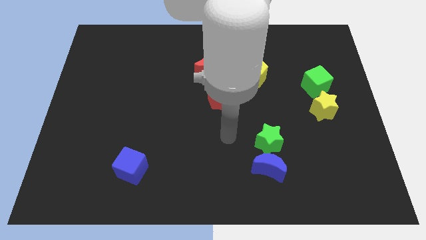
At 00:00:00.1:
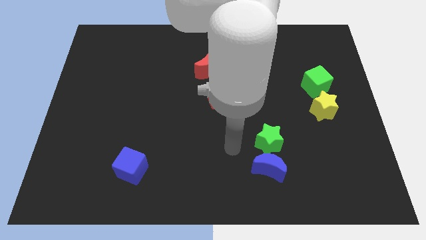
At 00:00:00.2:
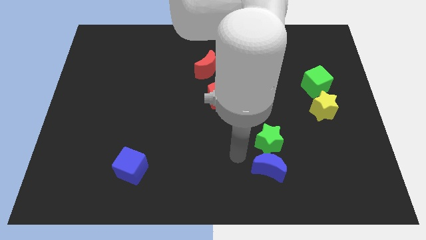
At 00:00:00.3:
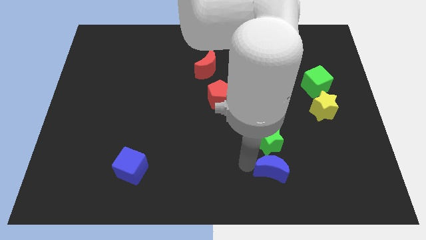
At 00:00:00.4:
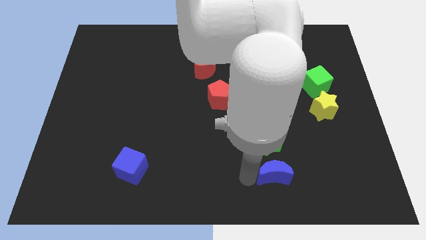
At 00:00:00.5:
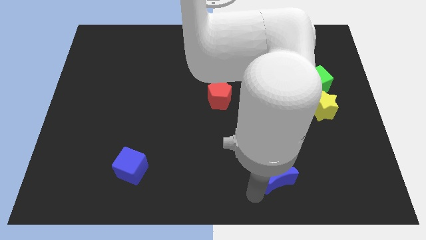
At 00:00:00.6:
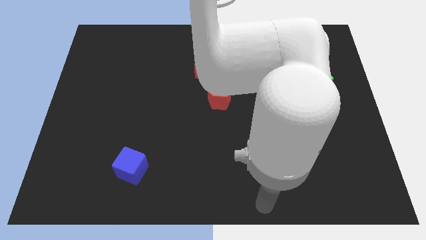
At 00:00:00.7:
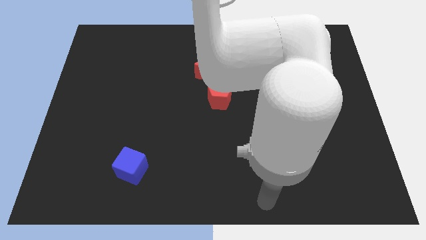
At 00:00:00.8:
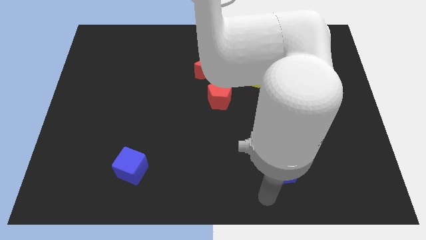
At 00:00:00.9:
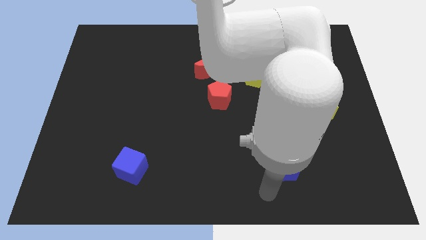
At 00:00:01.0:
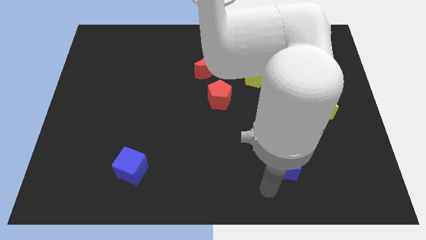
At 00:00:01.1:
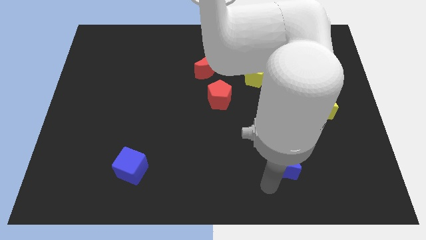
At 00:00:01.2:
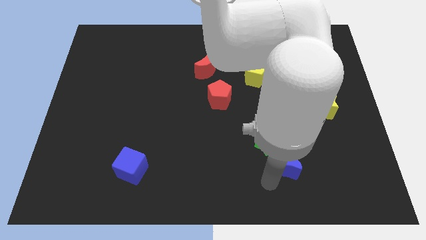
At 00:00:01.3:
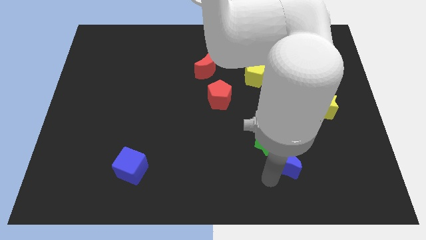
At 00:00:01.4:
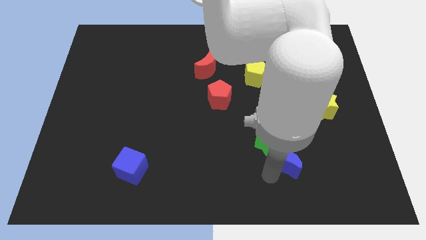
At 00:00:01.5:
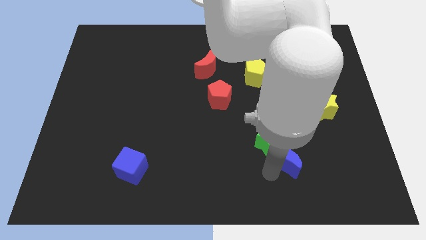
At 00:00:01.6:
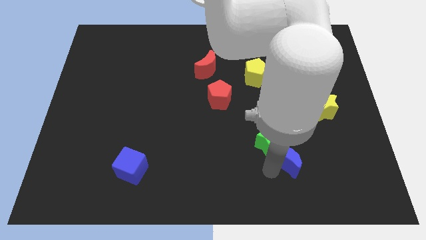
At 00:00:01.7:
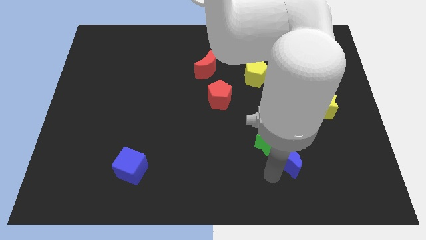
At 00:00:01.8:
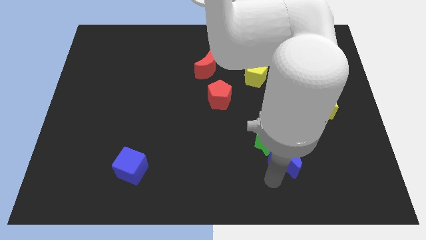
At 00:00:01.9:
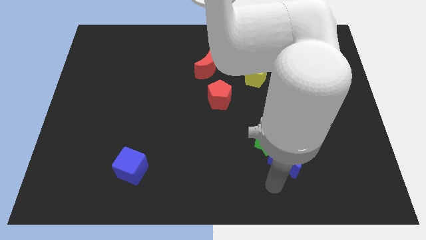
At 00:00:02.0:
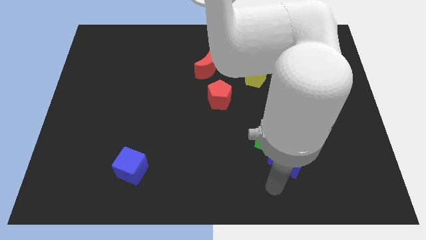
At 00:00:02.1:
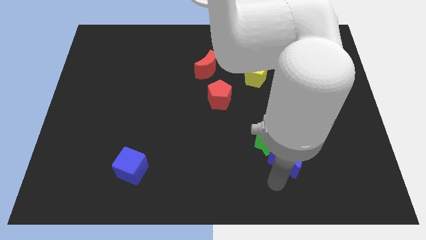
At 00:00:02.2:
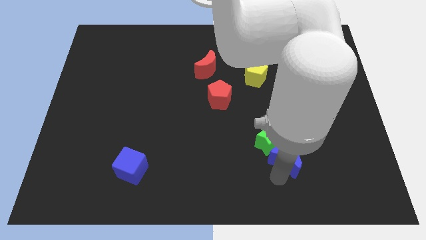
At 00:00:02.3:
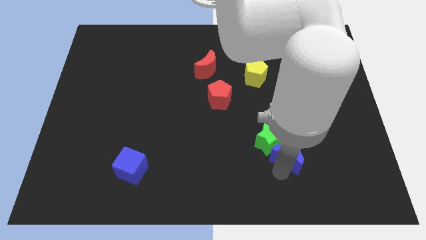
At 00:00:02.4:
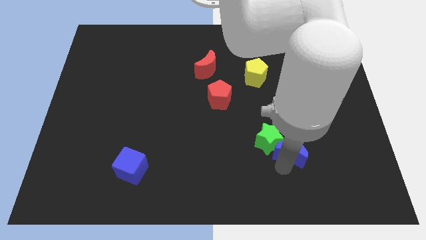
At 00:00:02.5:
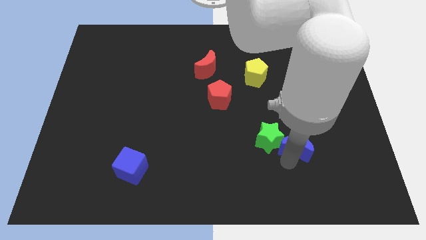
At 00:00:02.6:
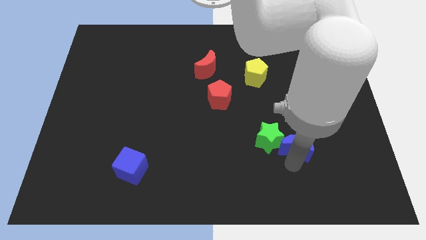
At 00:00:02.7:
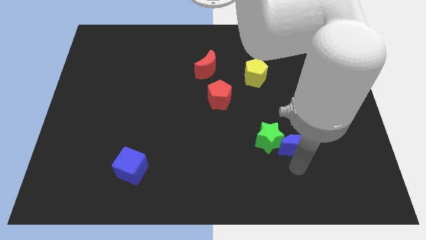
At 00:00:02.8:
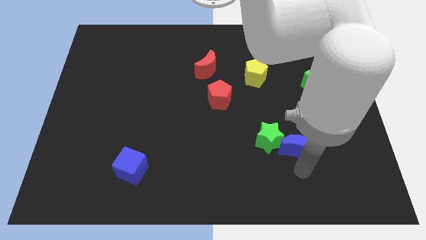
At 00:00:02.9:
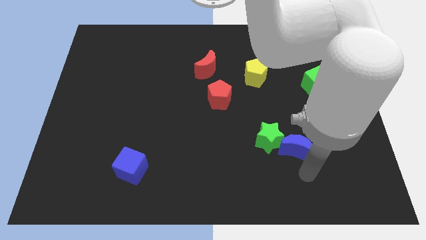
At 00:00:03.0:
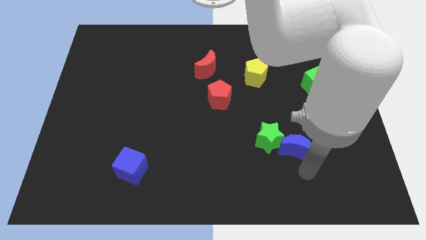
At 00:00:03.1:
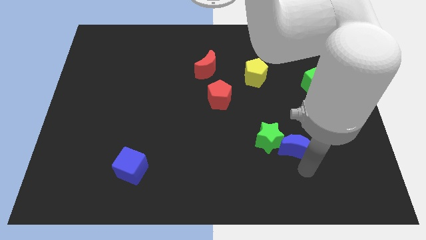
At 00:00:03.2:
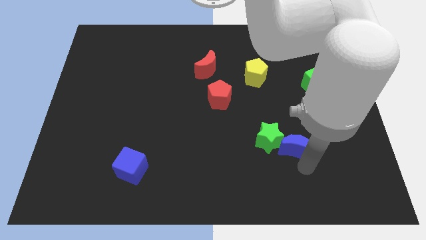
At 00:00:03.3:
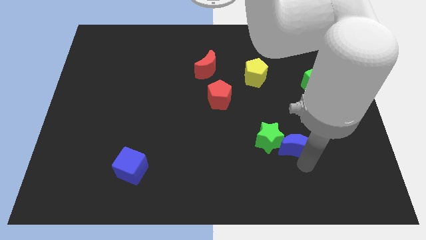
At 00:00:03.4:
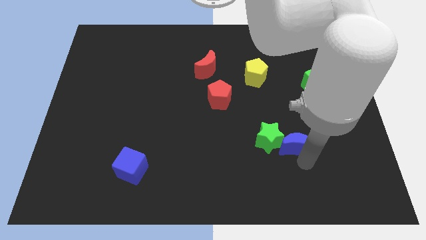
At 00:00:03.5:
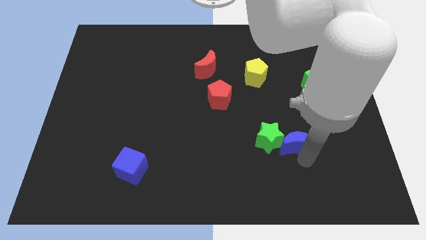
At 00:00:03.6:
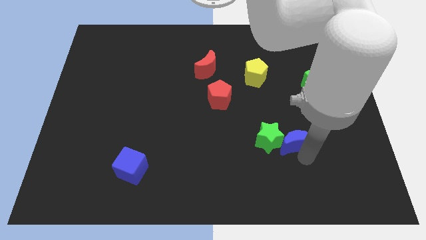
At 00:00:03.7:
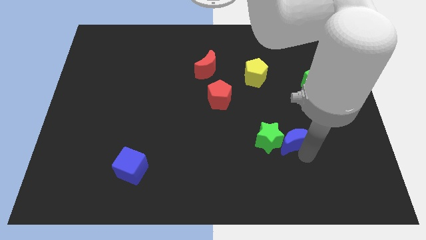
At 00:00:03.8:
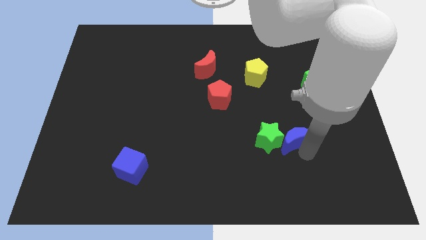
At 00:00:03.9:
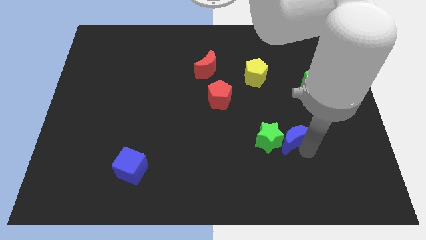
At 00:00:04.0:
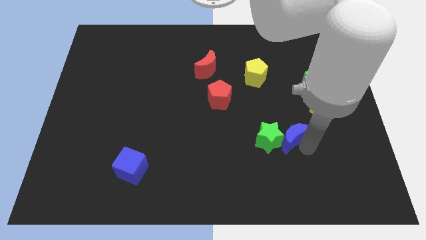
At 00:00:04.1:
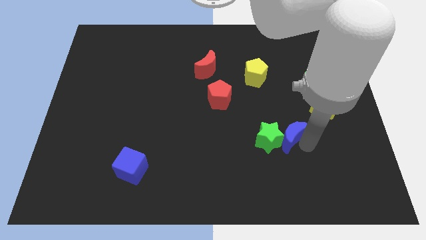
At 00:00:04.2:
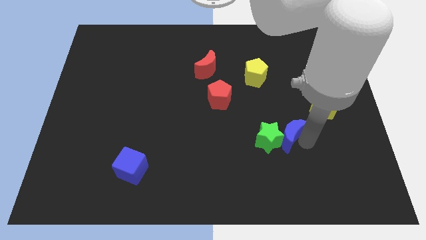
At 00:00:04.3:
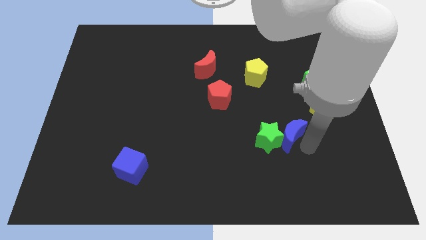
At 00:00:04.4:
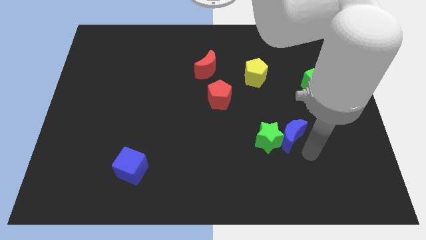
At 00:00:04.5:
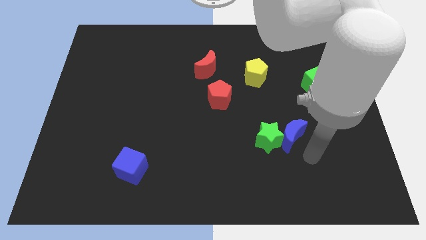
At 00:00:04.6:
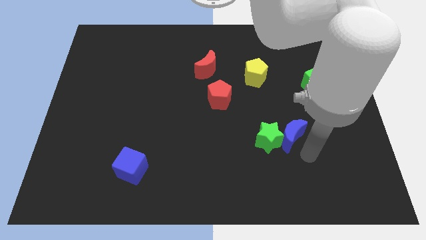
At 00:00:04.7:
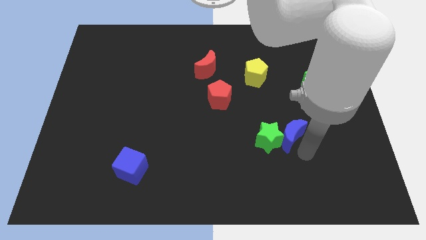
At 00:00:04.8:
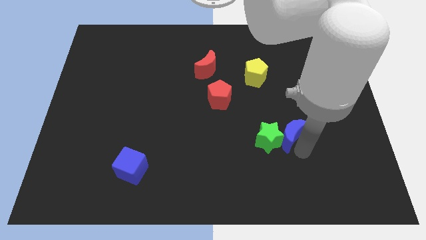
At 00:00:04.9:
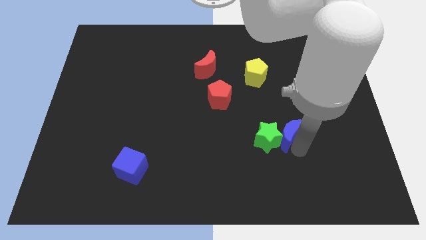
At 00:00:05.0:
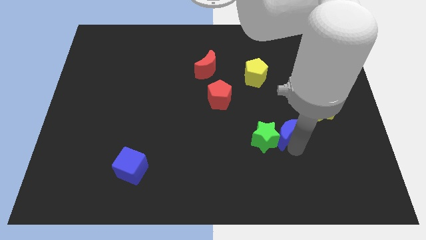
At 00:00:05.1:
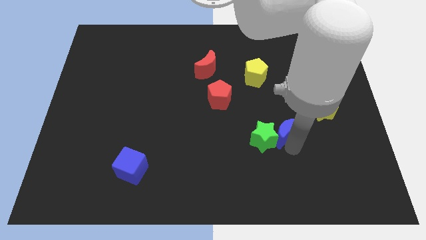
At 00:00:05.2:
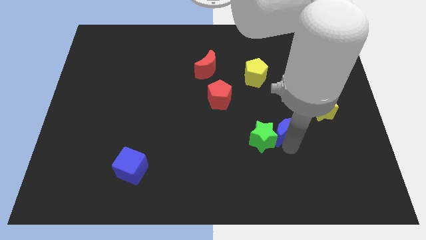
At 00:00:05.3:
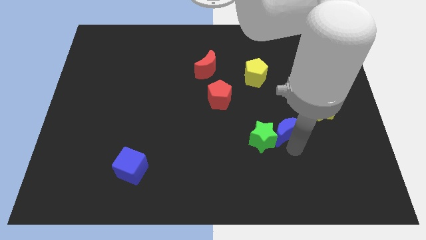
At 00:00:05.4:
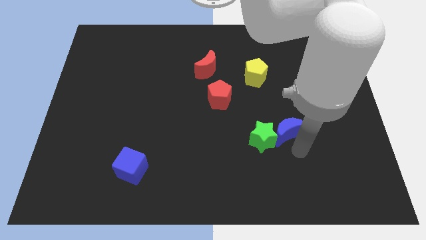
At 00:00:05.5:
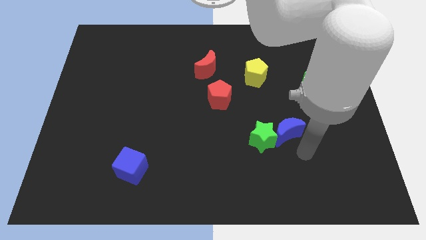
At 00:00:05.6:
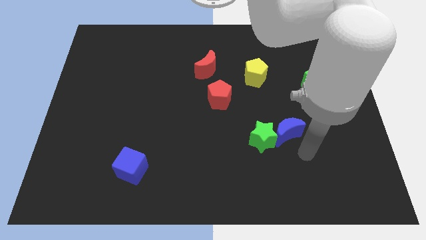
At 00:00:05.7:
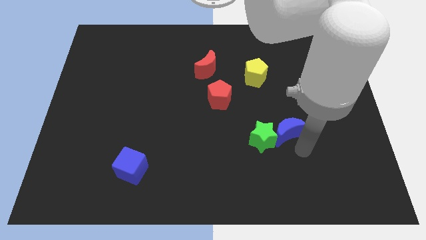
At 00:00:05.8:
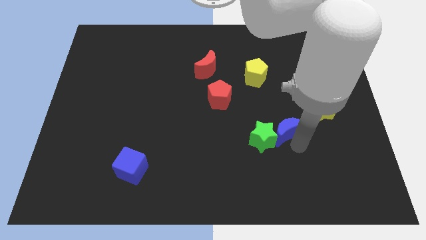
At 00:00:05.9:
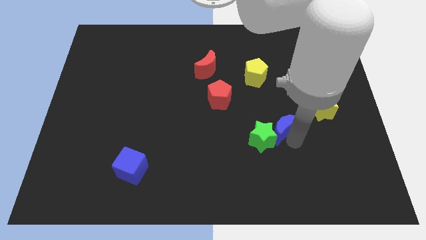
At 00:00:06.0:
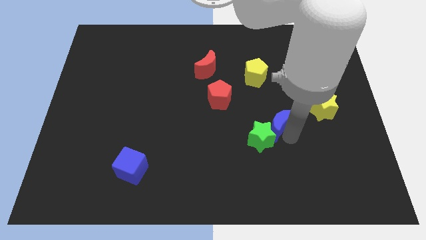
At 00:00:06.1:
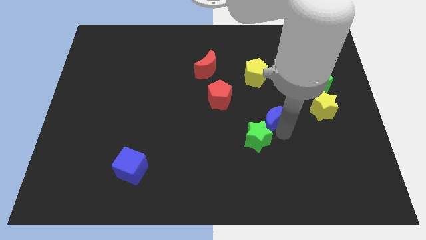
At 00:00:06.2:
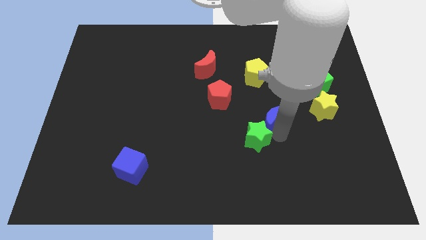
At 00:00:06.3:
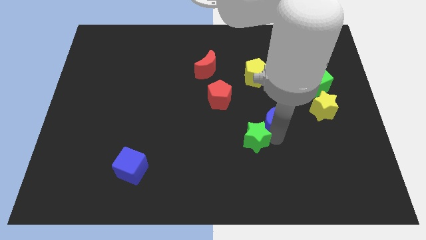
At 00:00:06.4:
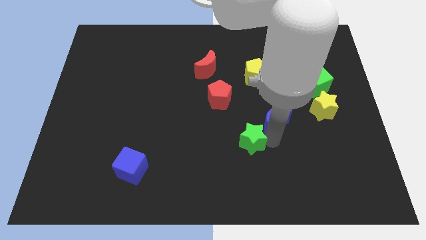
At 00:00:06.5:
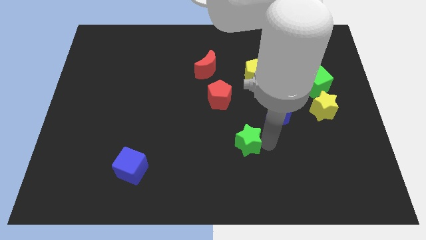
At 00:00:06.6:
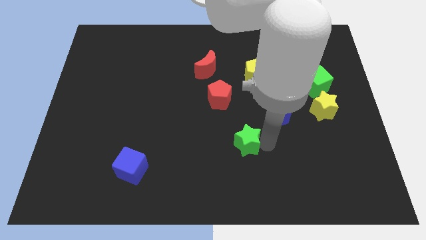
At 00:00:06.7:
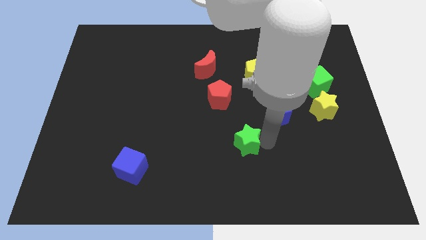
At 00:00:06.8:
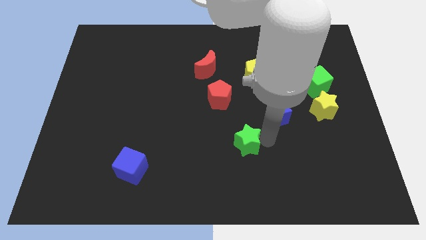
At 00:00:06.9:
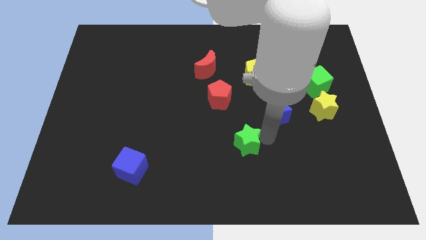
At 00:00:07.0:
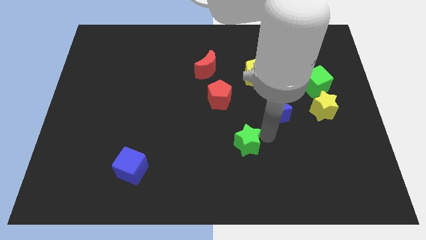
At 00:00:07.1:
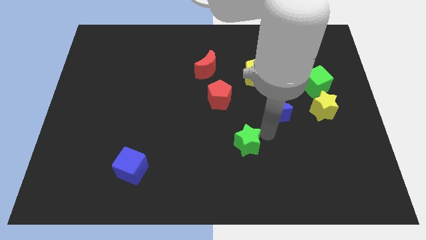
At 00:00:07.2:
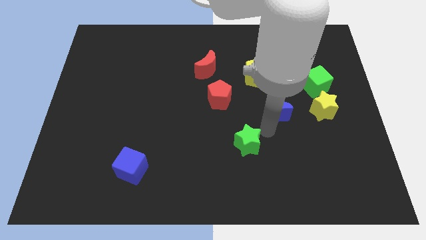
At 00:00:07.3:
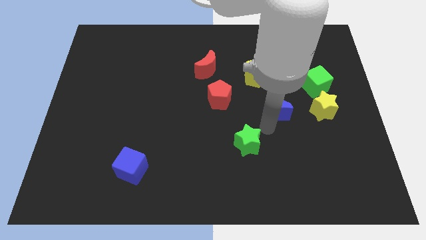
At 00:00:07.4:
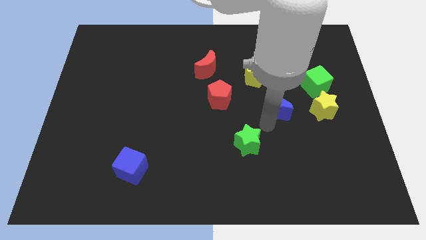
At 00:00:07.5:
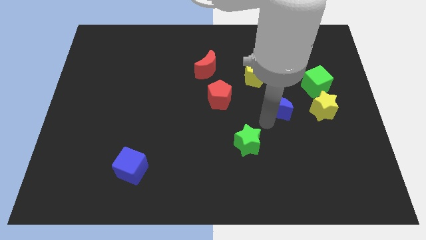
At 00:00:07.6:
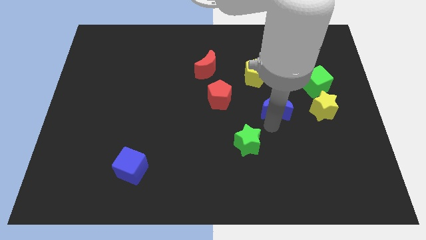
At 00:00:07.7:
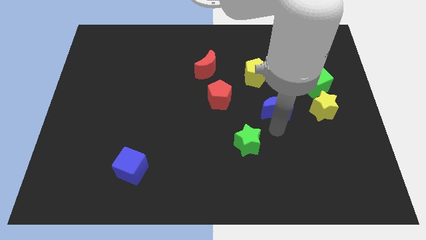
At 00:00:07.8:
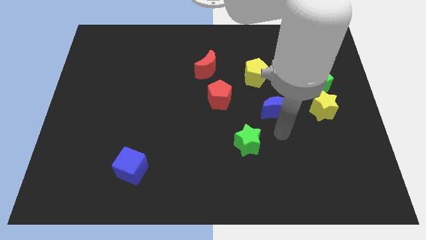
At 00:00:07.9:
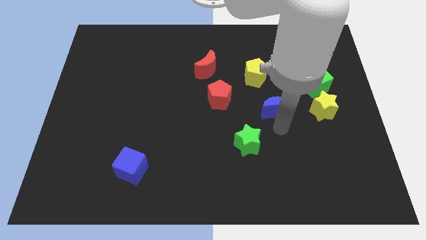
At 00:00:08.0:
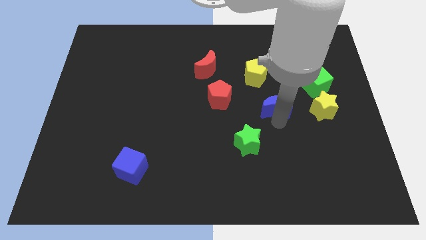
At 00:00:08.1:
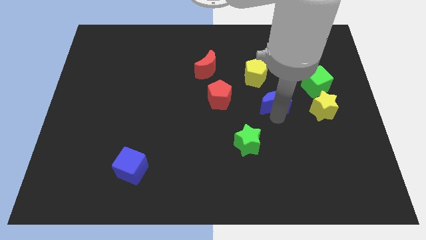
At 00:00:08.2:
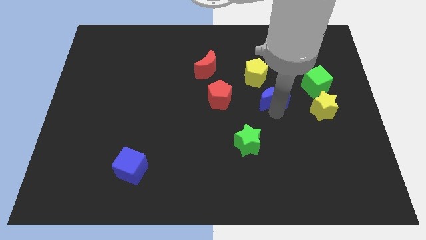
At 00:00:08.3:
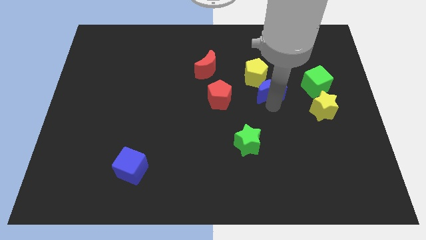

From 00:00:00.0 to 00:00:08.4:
slide the blue moon up
